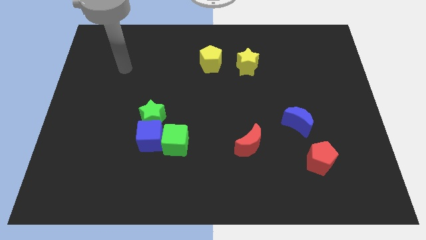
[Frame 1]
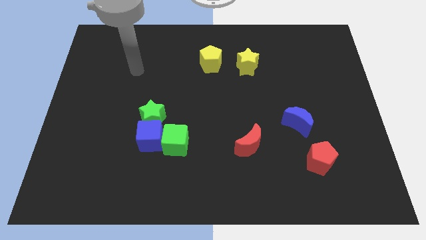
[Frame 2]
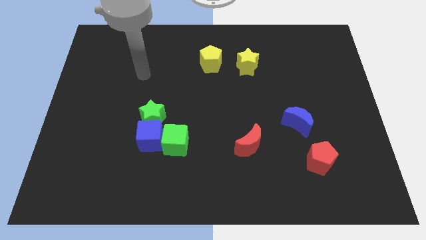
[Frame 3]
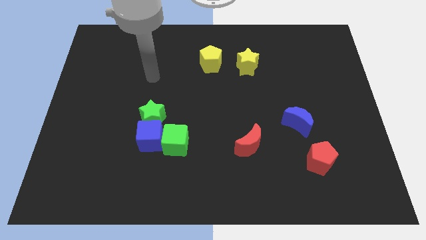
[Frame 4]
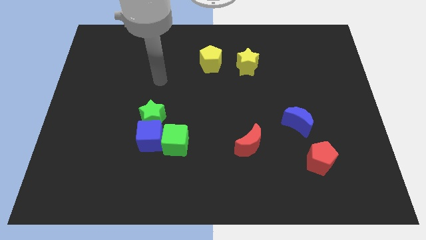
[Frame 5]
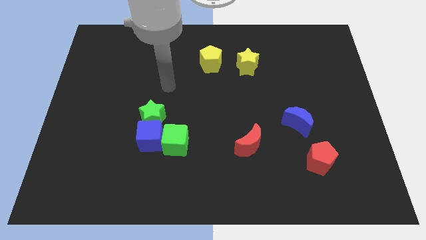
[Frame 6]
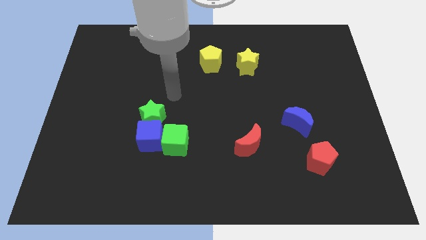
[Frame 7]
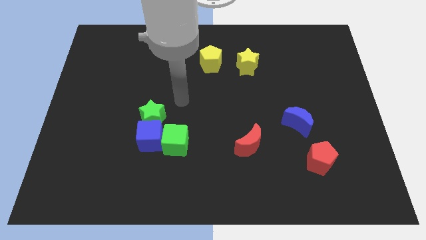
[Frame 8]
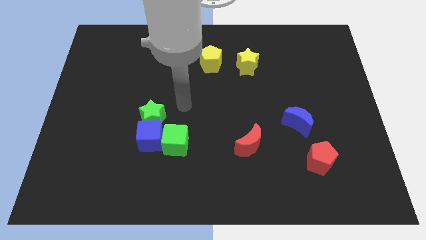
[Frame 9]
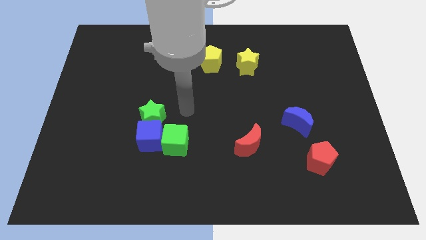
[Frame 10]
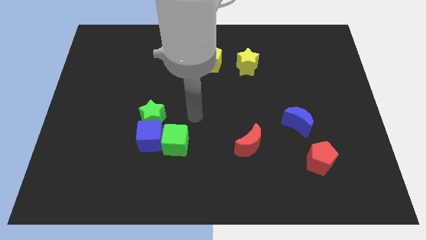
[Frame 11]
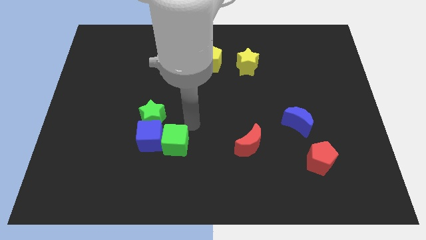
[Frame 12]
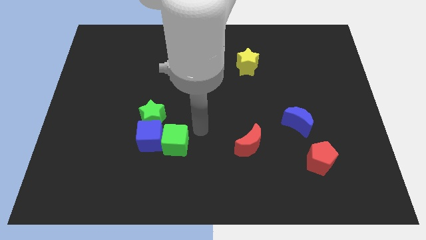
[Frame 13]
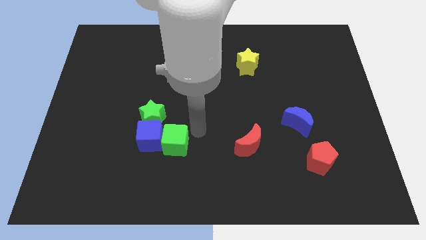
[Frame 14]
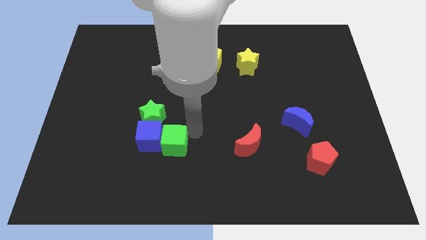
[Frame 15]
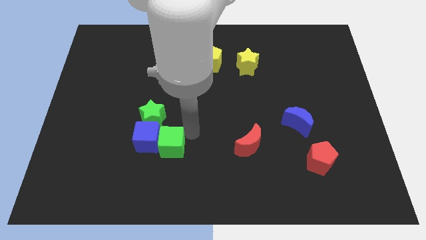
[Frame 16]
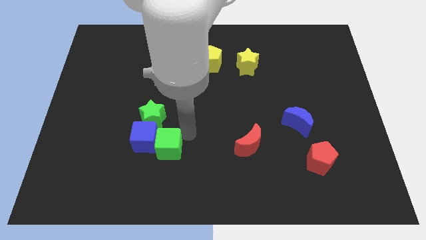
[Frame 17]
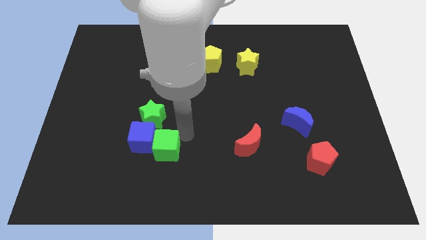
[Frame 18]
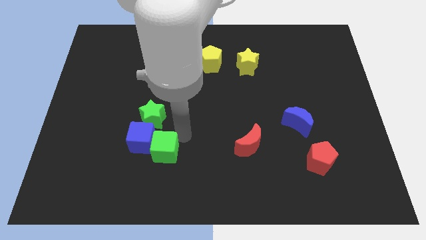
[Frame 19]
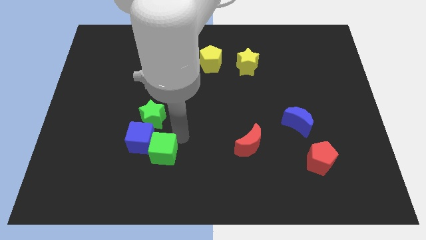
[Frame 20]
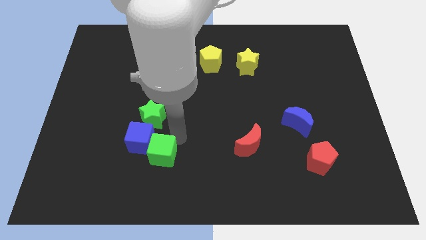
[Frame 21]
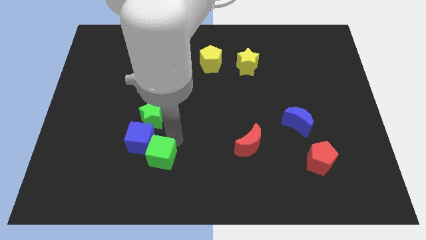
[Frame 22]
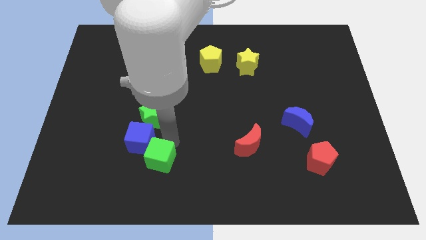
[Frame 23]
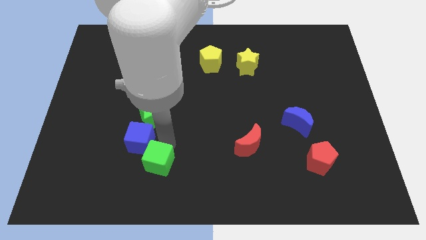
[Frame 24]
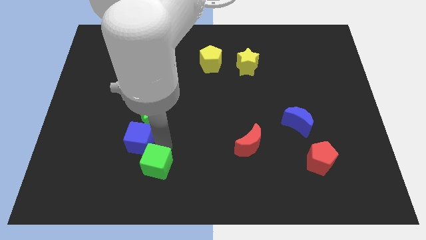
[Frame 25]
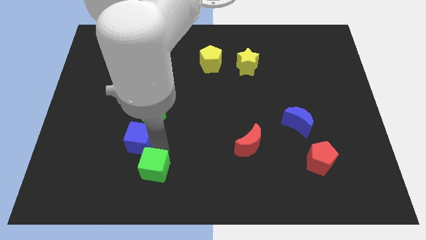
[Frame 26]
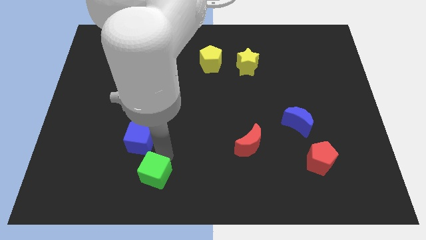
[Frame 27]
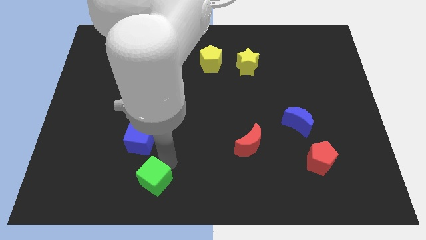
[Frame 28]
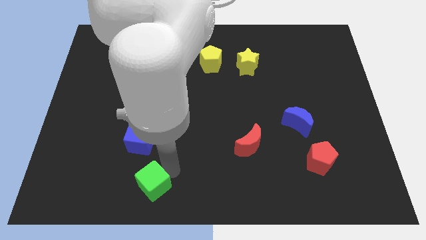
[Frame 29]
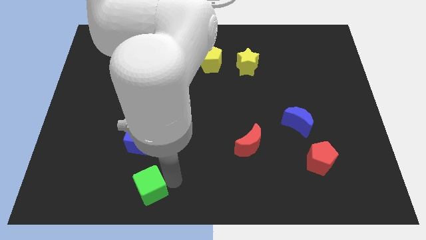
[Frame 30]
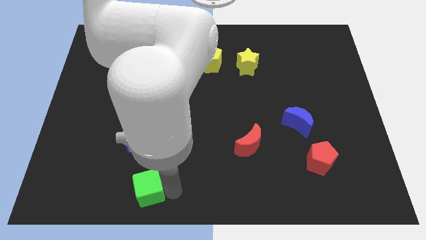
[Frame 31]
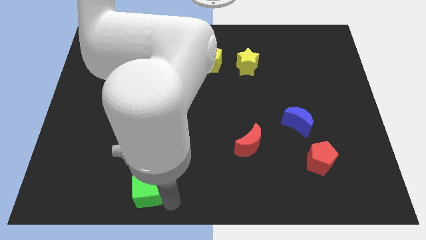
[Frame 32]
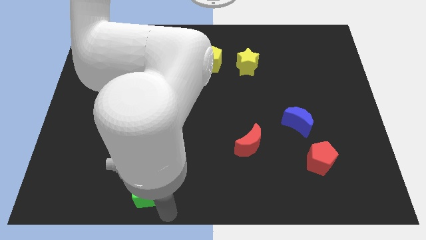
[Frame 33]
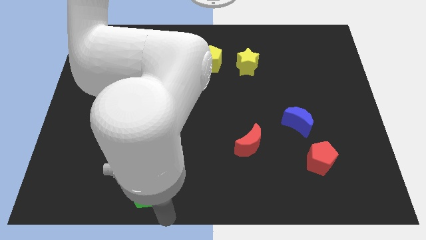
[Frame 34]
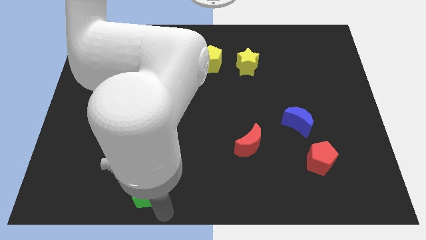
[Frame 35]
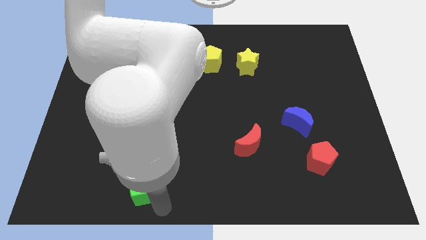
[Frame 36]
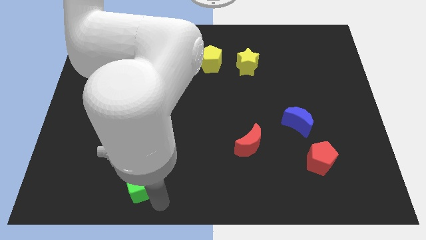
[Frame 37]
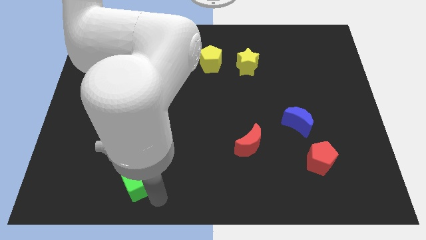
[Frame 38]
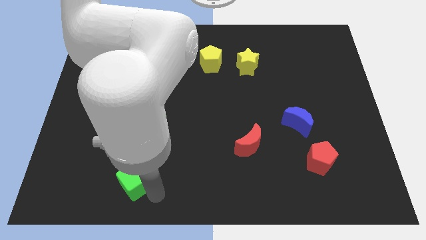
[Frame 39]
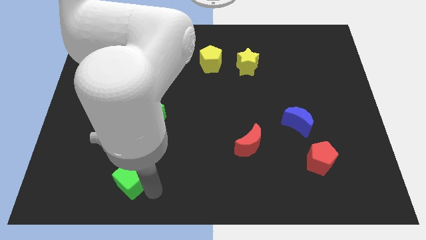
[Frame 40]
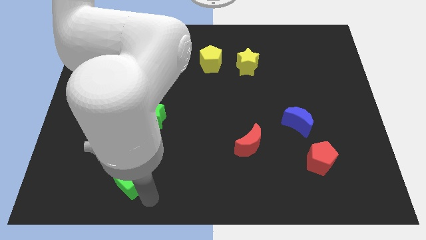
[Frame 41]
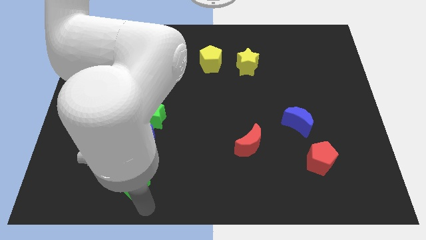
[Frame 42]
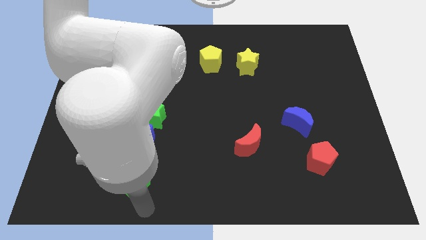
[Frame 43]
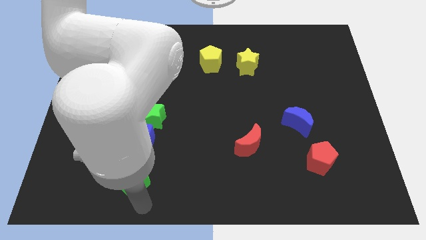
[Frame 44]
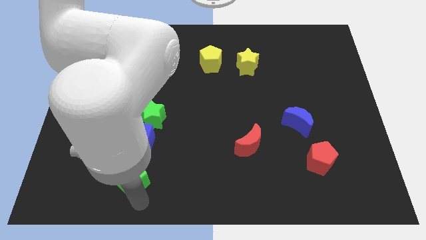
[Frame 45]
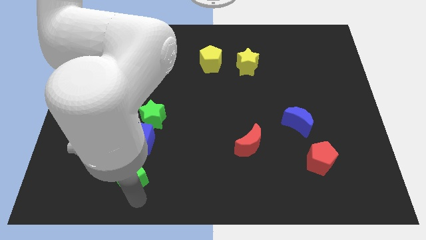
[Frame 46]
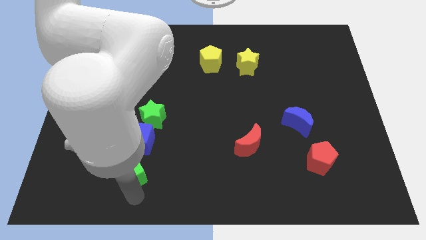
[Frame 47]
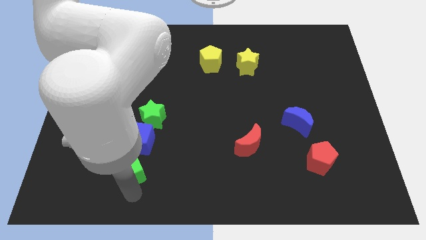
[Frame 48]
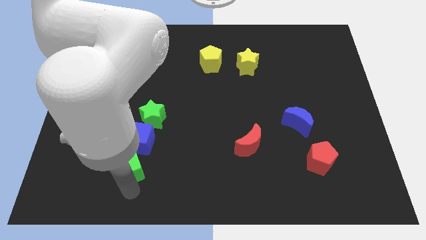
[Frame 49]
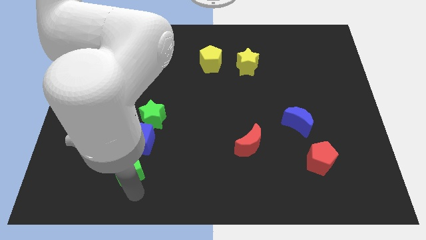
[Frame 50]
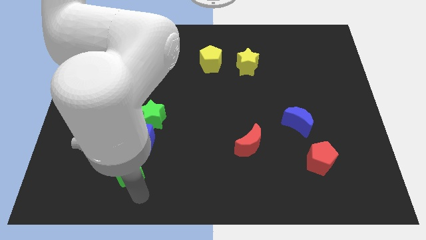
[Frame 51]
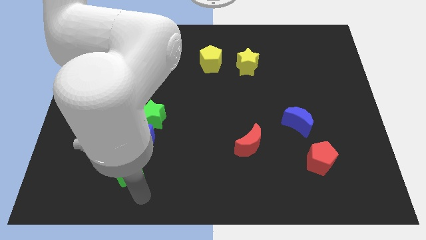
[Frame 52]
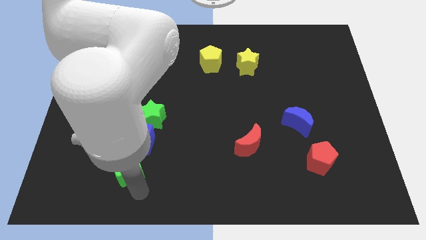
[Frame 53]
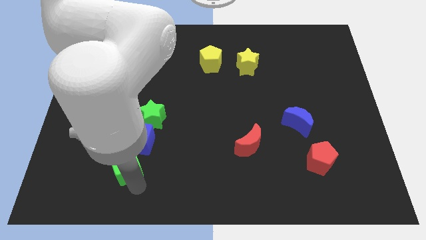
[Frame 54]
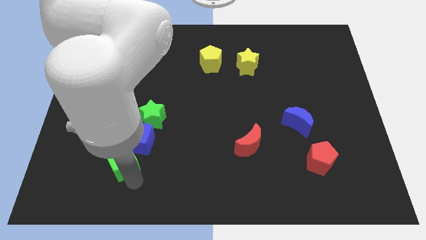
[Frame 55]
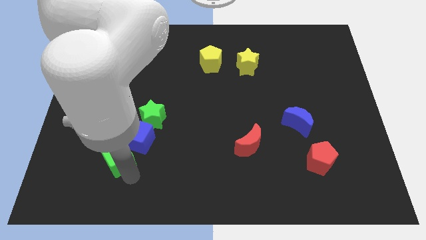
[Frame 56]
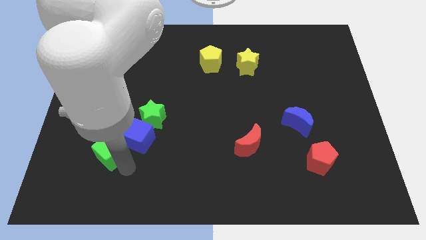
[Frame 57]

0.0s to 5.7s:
push the green cube to the left of the blue cube

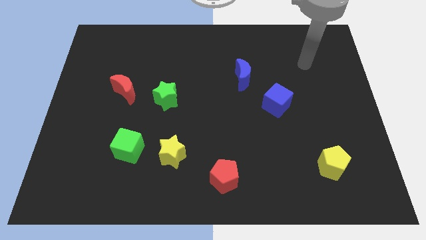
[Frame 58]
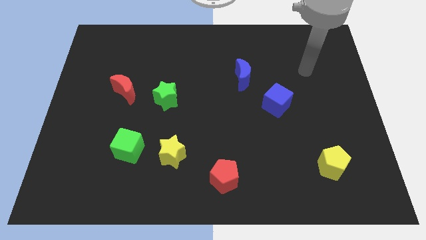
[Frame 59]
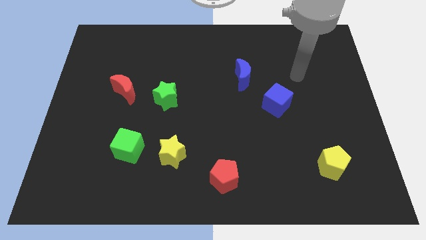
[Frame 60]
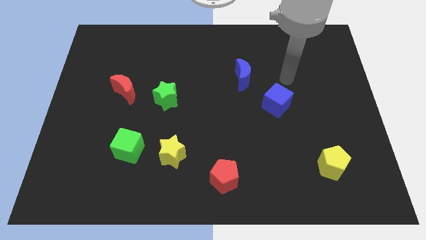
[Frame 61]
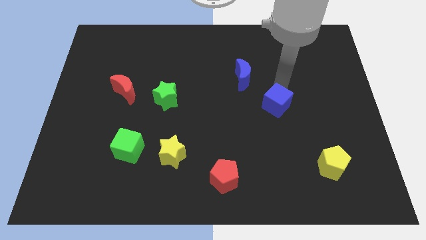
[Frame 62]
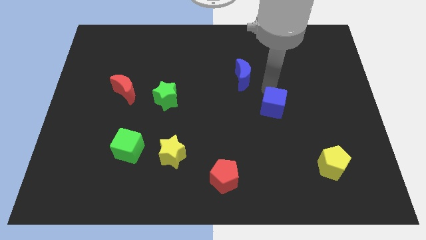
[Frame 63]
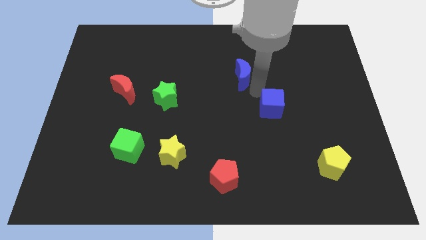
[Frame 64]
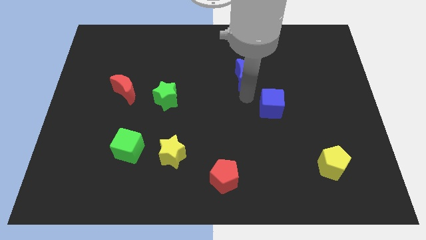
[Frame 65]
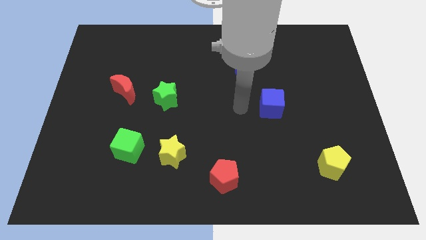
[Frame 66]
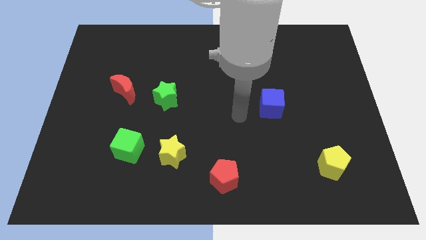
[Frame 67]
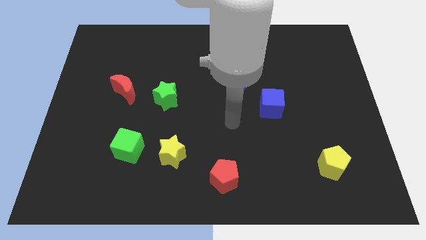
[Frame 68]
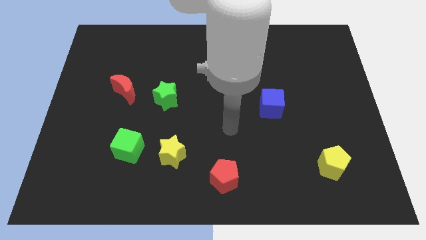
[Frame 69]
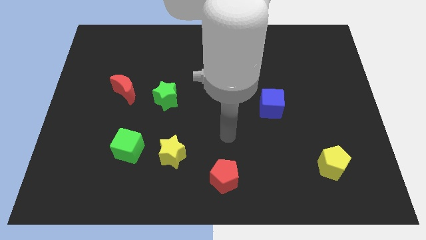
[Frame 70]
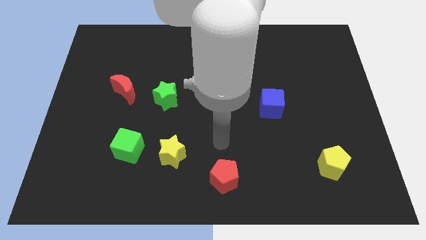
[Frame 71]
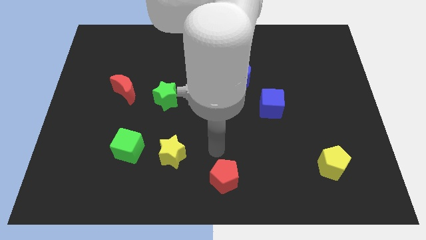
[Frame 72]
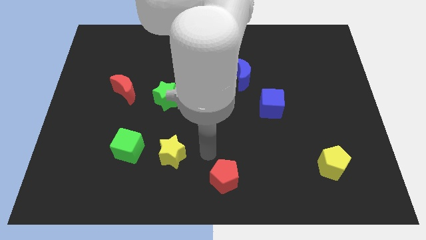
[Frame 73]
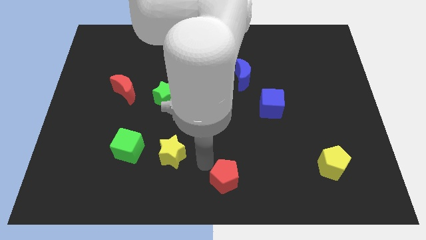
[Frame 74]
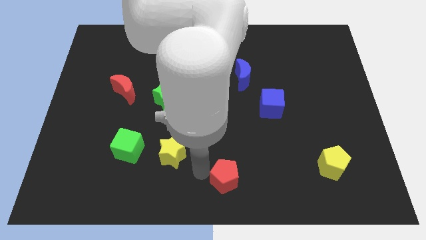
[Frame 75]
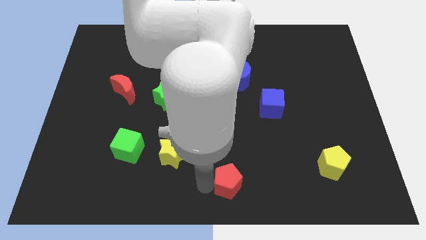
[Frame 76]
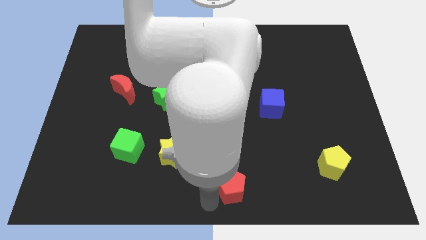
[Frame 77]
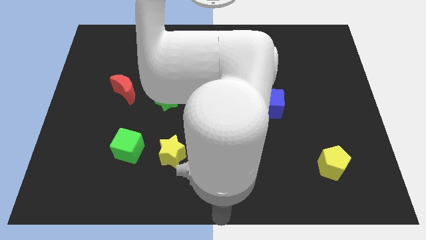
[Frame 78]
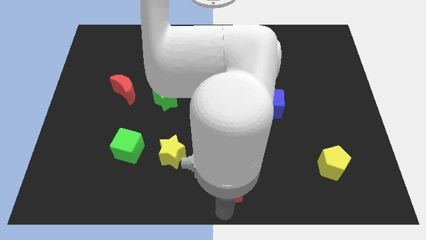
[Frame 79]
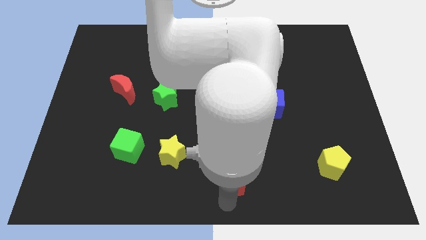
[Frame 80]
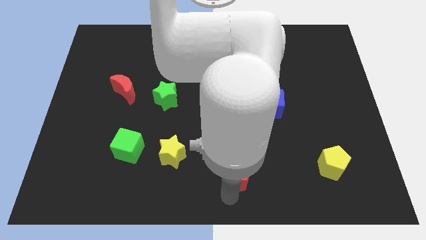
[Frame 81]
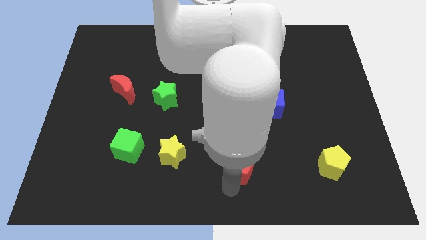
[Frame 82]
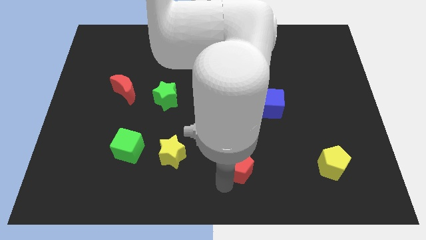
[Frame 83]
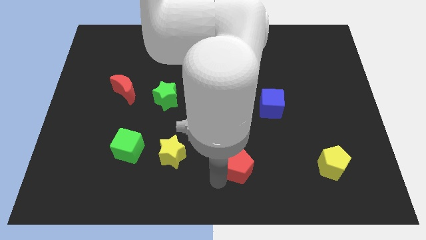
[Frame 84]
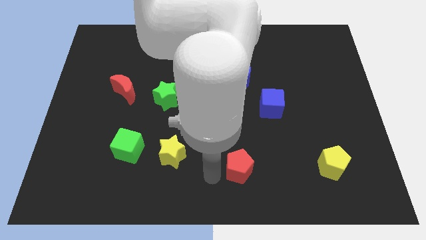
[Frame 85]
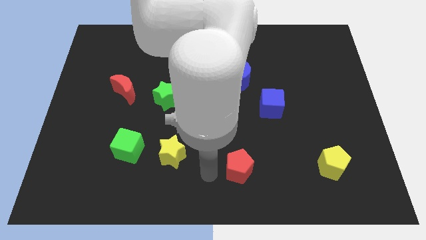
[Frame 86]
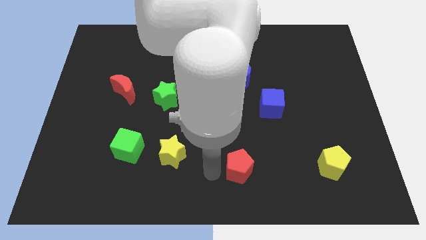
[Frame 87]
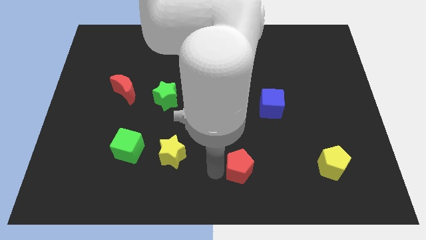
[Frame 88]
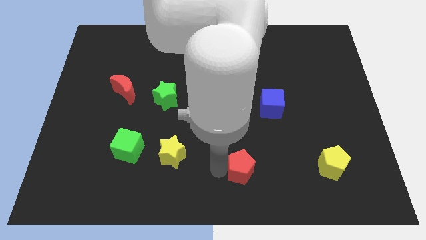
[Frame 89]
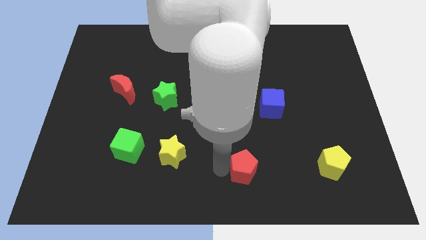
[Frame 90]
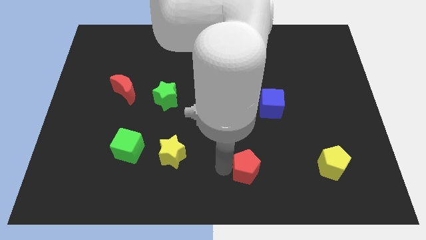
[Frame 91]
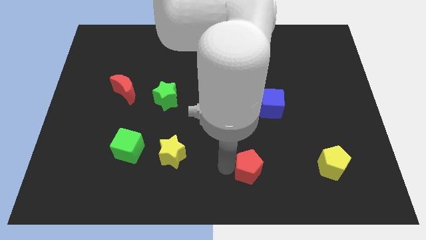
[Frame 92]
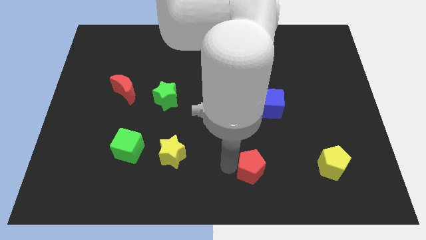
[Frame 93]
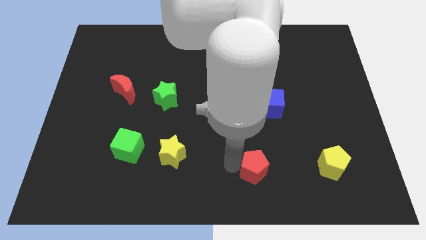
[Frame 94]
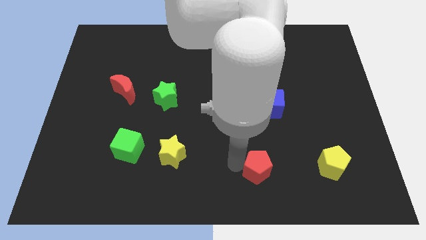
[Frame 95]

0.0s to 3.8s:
push the red pentagon to the left of the yellow pentagon
